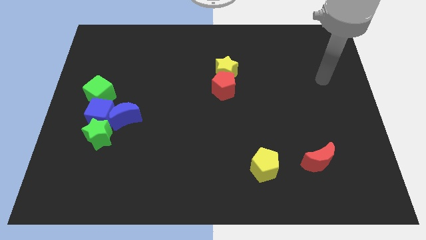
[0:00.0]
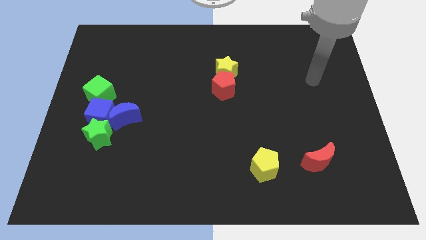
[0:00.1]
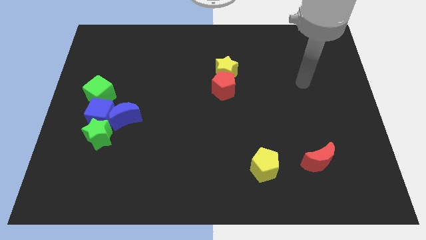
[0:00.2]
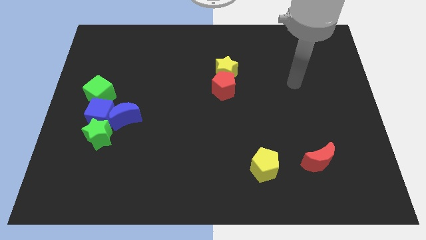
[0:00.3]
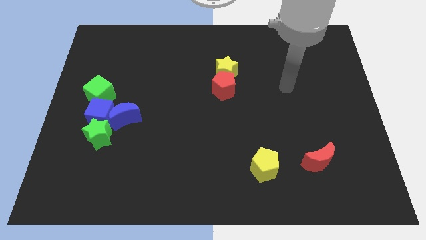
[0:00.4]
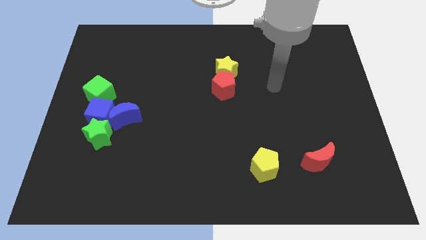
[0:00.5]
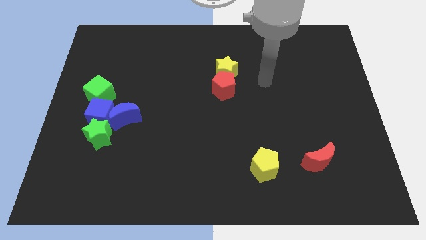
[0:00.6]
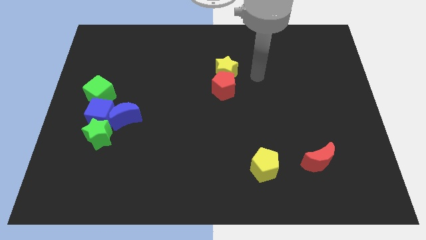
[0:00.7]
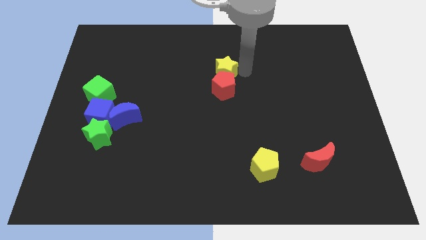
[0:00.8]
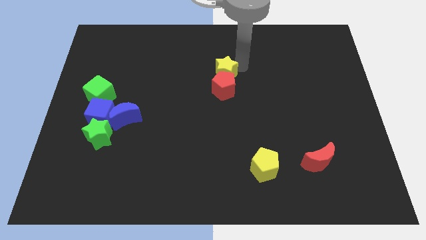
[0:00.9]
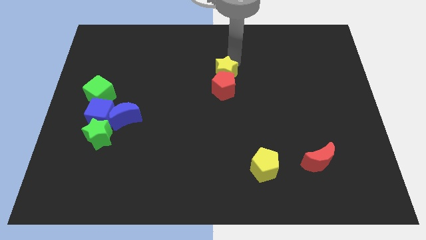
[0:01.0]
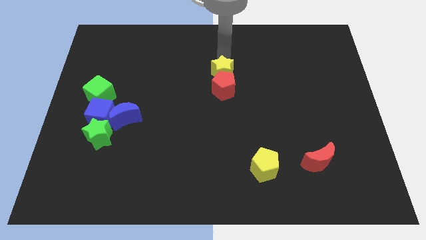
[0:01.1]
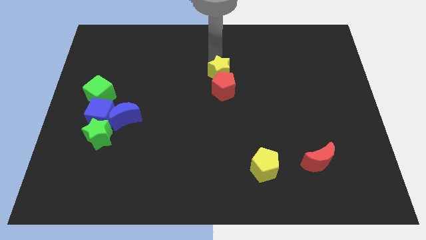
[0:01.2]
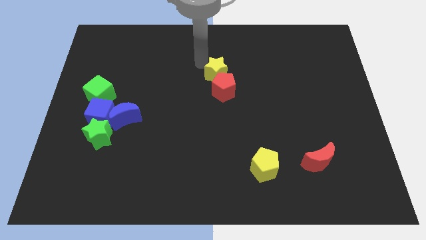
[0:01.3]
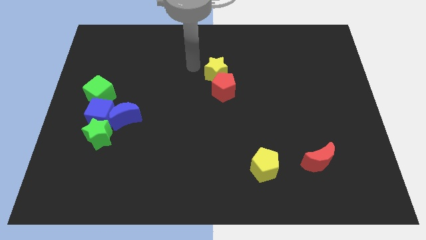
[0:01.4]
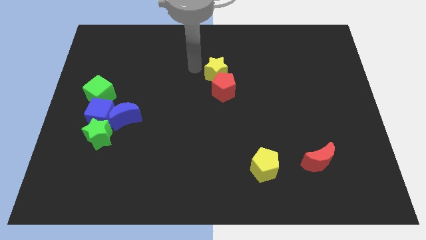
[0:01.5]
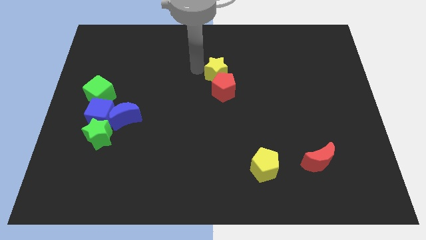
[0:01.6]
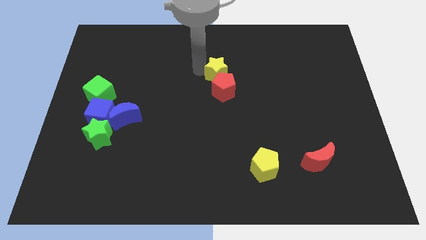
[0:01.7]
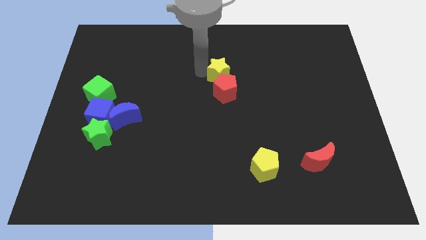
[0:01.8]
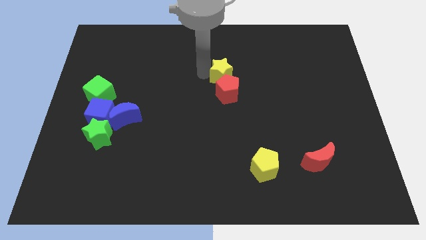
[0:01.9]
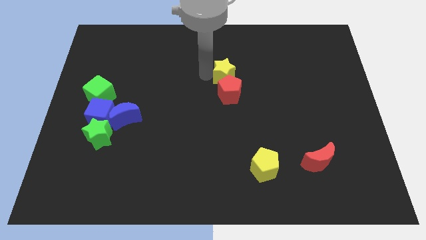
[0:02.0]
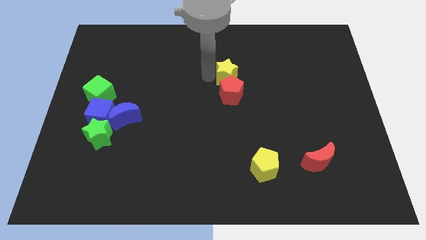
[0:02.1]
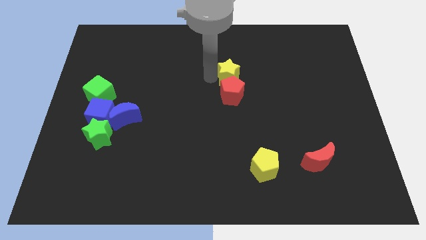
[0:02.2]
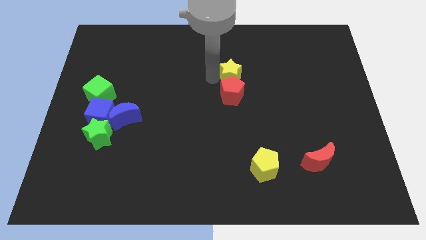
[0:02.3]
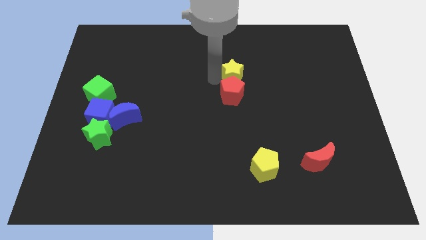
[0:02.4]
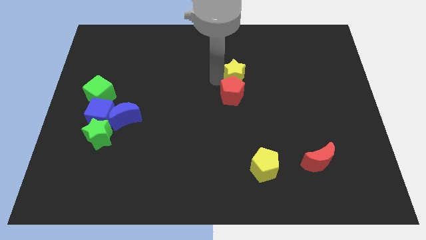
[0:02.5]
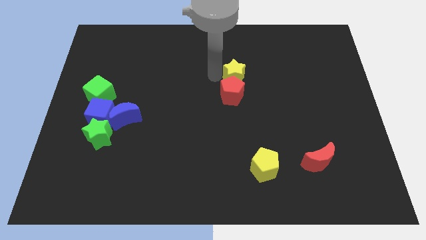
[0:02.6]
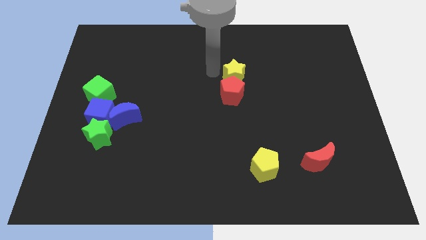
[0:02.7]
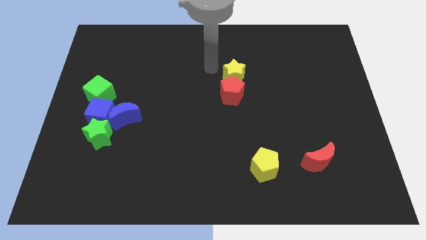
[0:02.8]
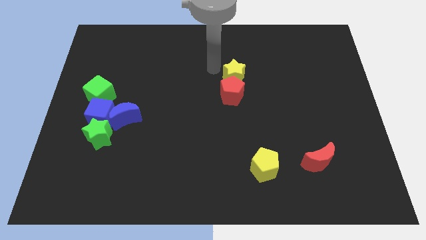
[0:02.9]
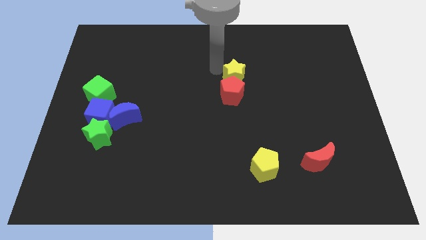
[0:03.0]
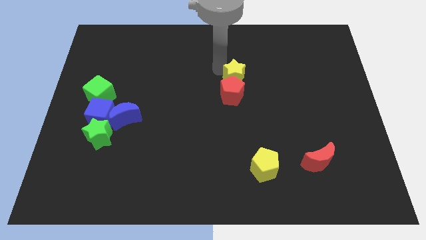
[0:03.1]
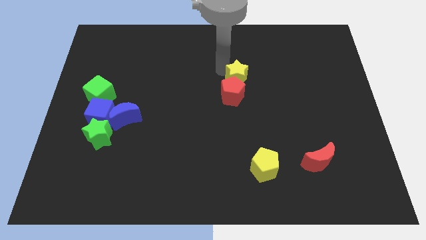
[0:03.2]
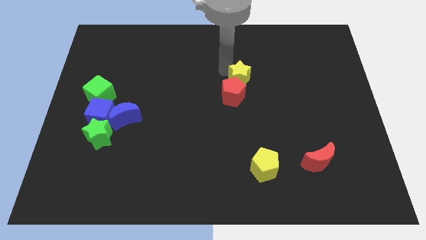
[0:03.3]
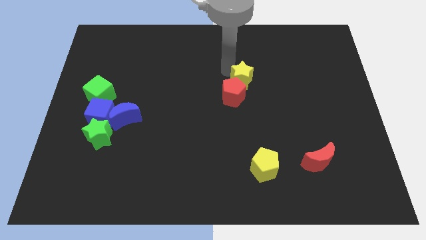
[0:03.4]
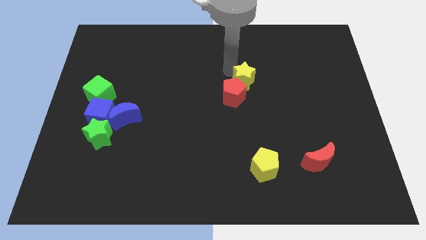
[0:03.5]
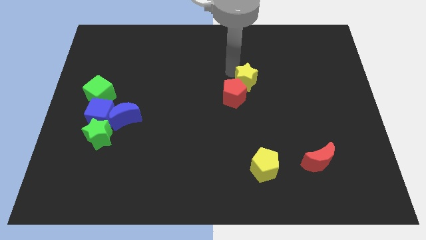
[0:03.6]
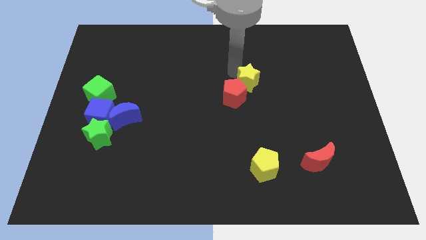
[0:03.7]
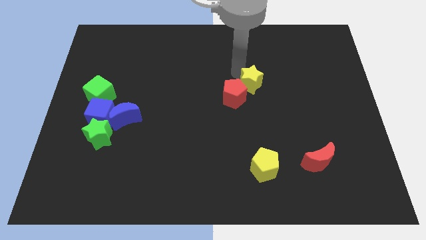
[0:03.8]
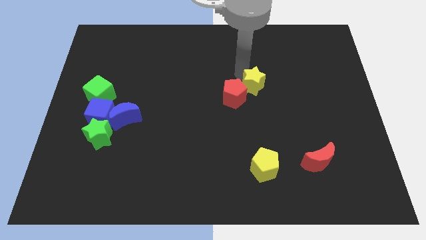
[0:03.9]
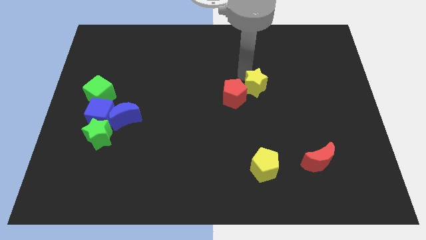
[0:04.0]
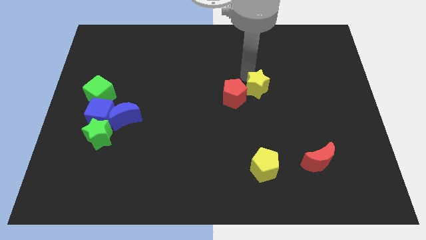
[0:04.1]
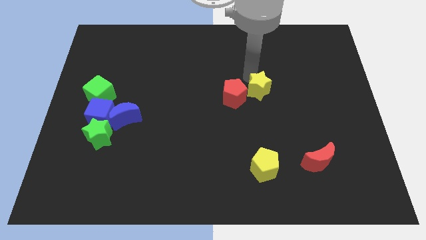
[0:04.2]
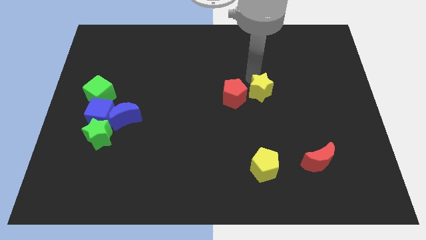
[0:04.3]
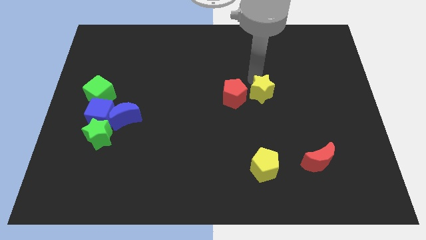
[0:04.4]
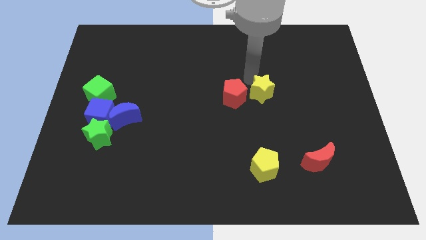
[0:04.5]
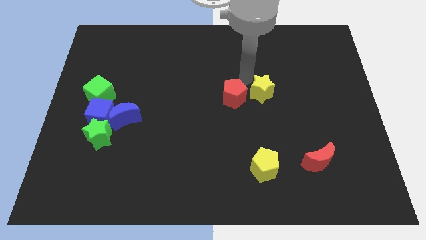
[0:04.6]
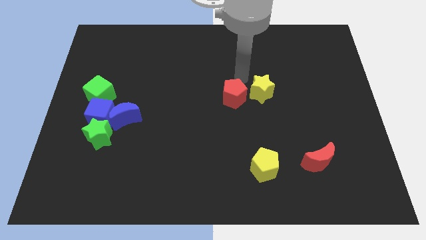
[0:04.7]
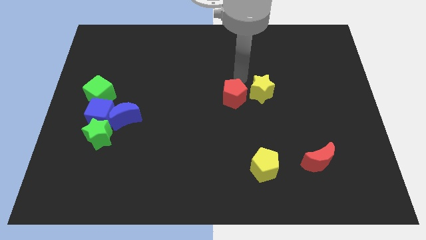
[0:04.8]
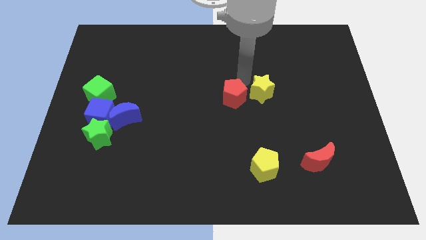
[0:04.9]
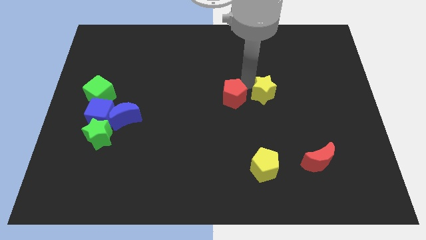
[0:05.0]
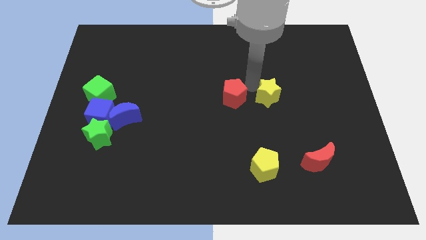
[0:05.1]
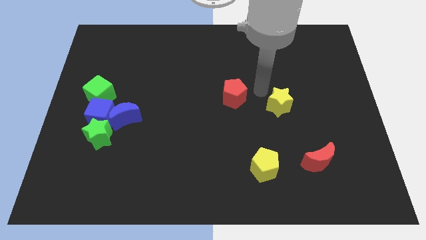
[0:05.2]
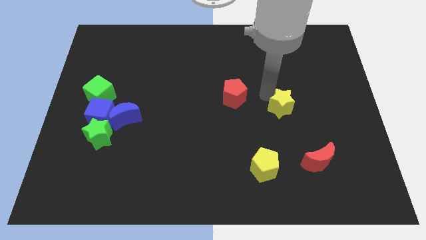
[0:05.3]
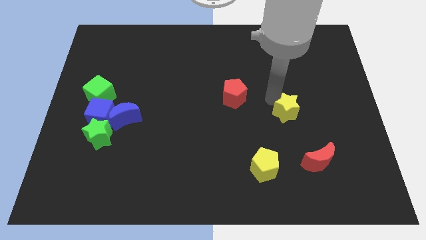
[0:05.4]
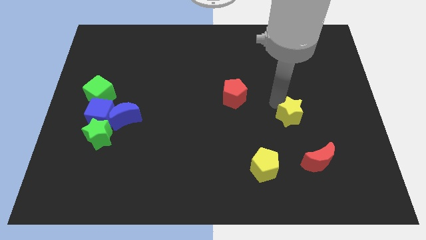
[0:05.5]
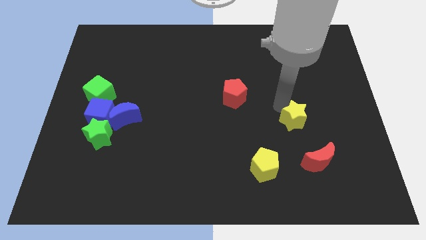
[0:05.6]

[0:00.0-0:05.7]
slide the yellow star down and right

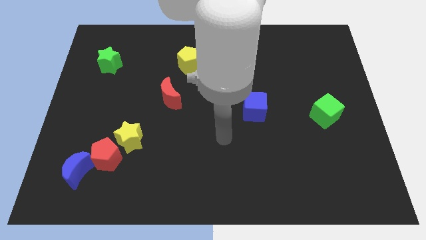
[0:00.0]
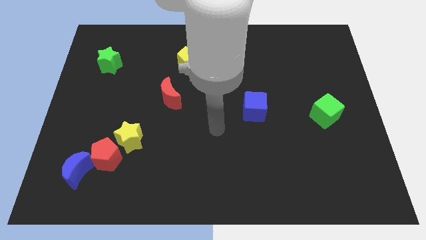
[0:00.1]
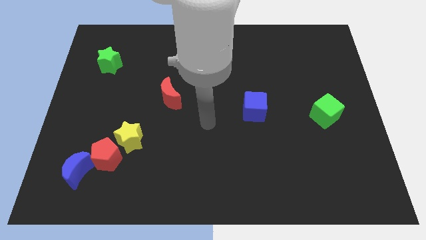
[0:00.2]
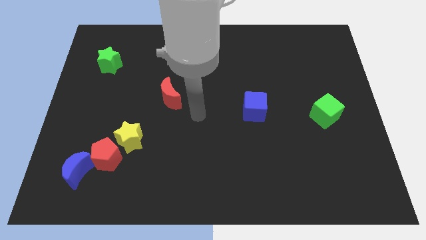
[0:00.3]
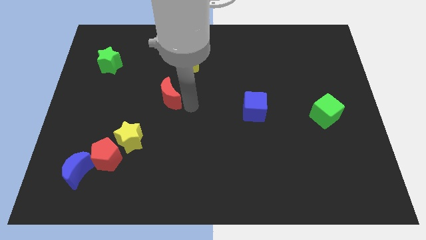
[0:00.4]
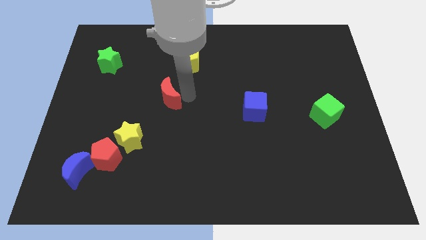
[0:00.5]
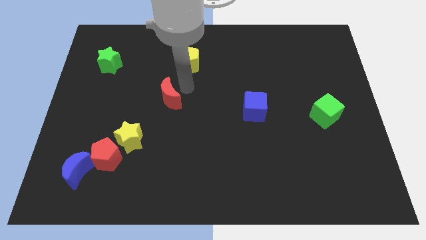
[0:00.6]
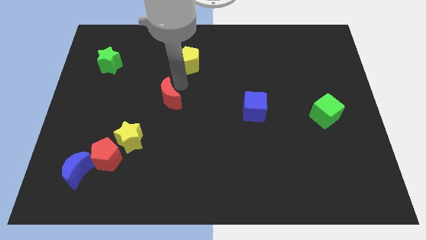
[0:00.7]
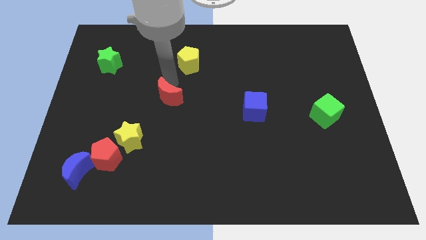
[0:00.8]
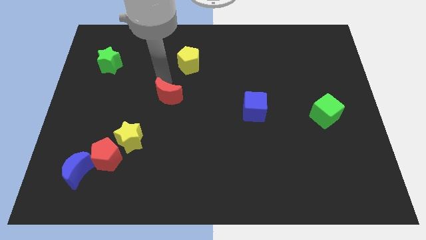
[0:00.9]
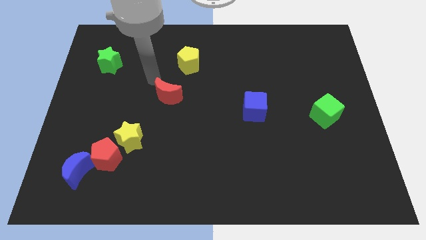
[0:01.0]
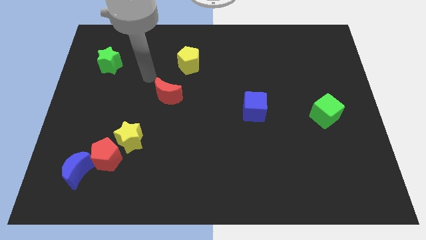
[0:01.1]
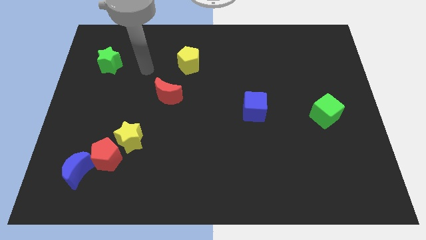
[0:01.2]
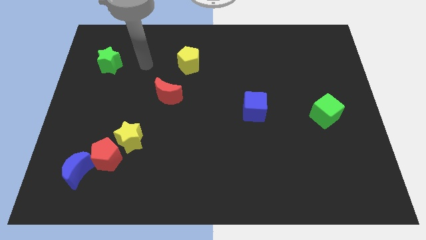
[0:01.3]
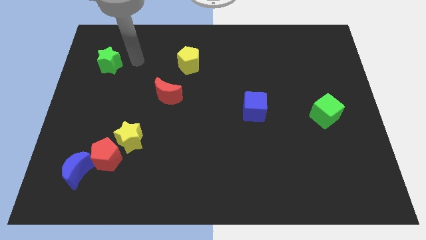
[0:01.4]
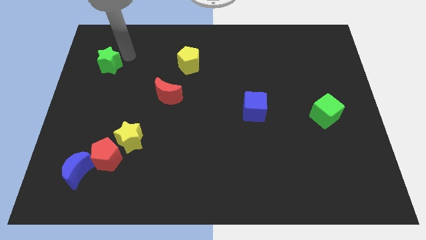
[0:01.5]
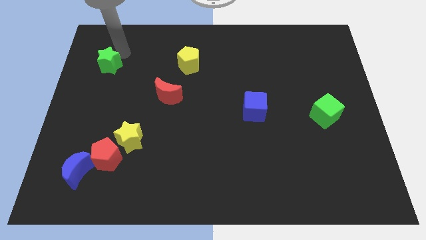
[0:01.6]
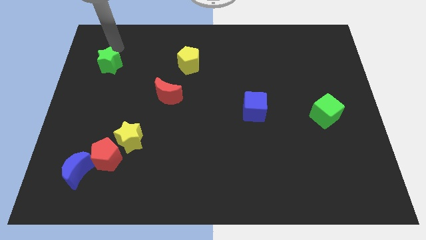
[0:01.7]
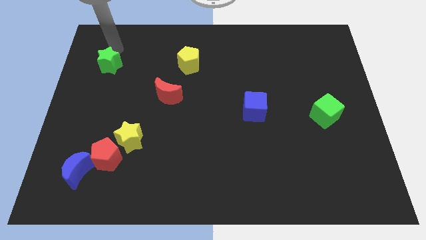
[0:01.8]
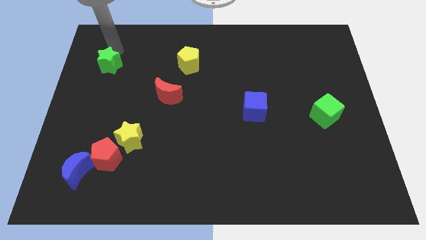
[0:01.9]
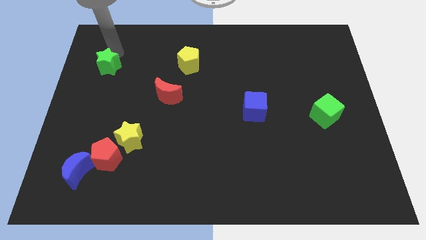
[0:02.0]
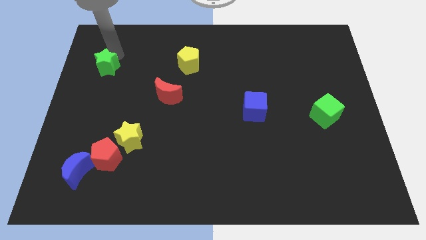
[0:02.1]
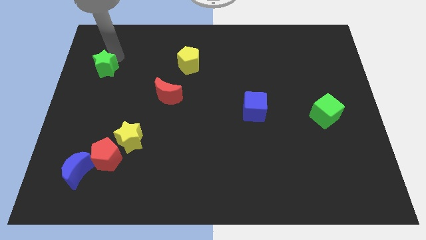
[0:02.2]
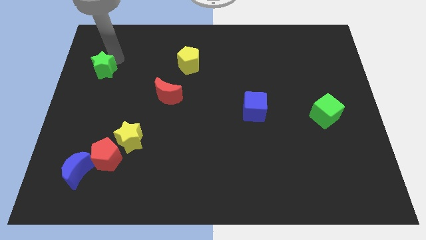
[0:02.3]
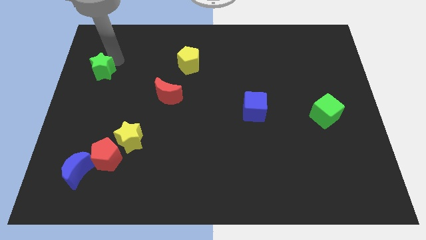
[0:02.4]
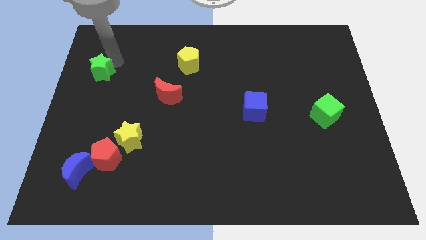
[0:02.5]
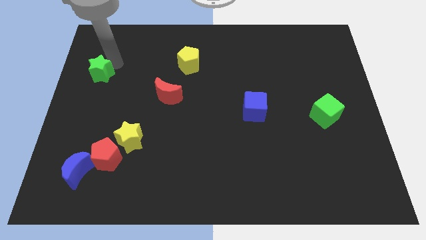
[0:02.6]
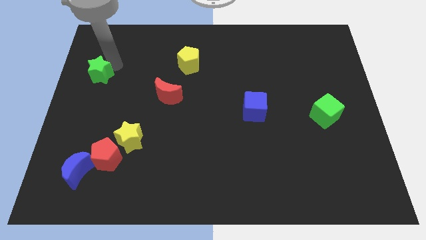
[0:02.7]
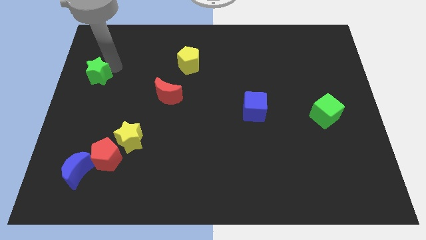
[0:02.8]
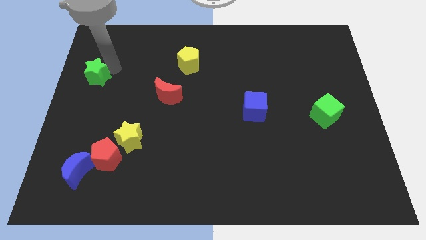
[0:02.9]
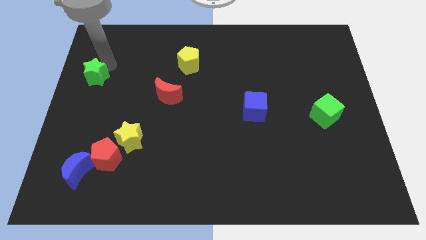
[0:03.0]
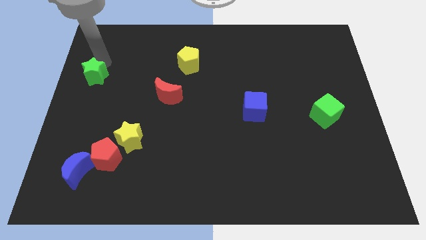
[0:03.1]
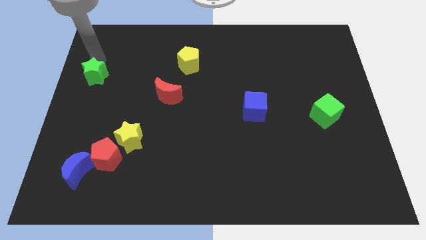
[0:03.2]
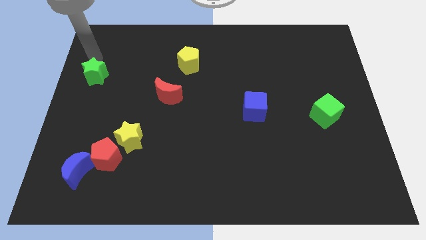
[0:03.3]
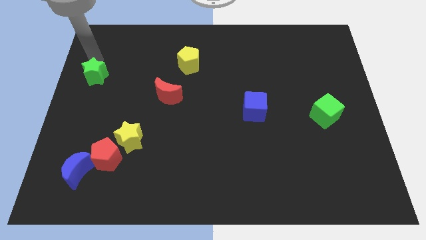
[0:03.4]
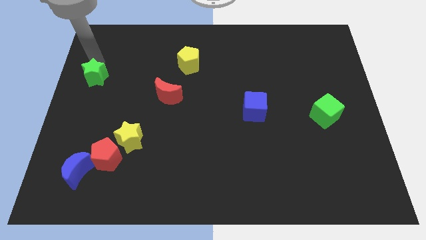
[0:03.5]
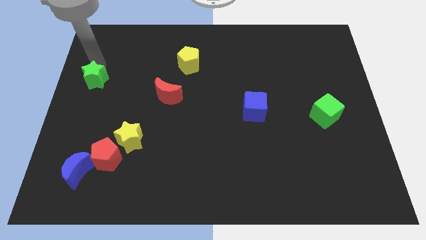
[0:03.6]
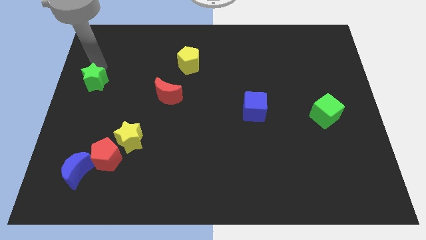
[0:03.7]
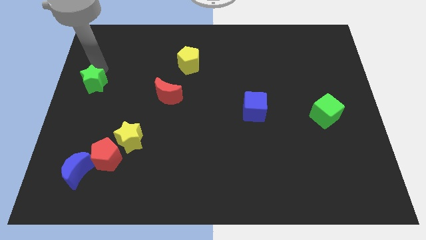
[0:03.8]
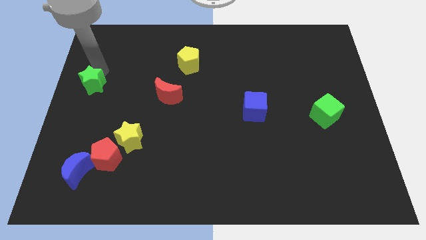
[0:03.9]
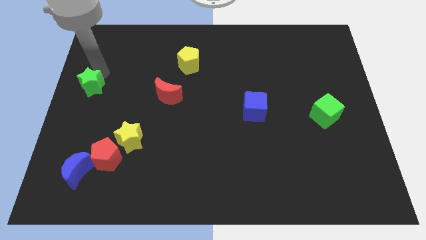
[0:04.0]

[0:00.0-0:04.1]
slightly move the green star down
